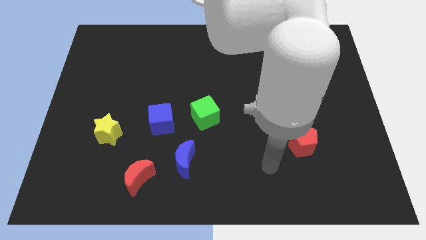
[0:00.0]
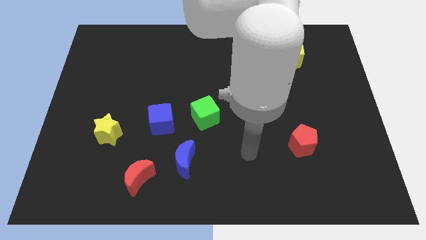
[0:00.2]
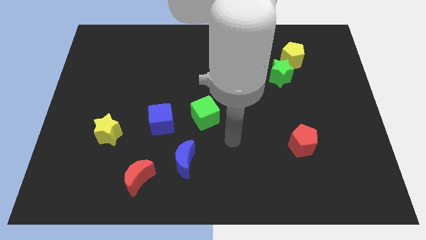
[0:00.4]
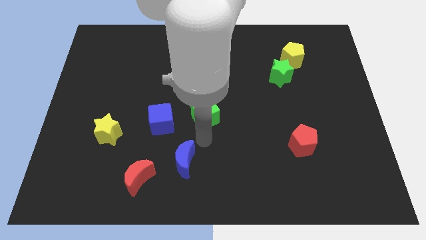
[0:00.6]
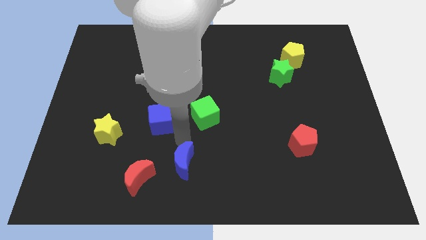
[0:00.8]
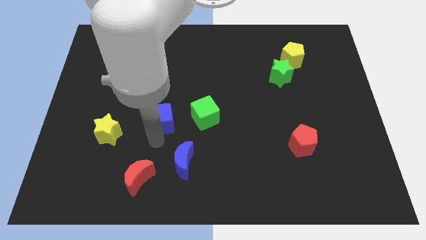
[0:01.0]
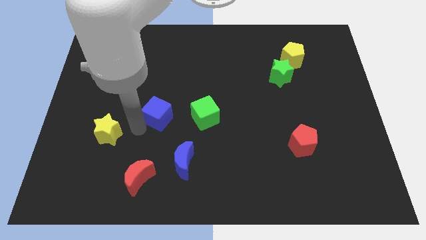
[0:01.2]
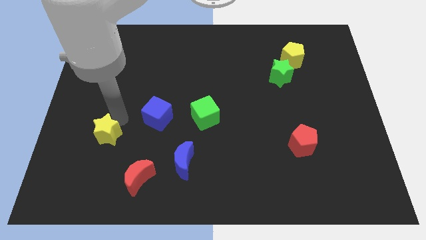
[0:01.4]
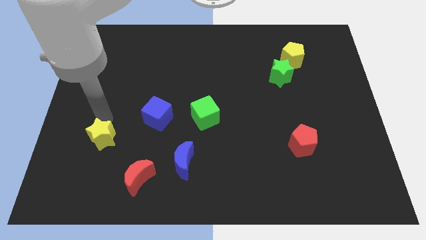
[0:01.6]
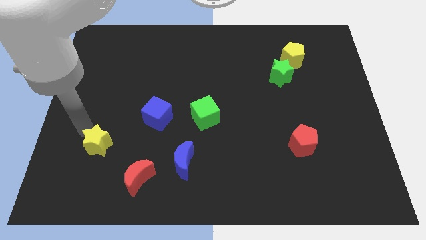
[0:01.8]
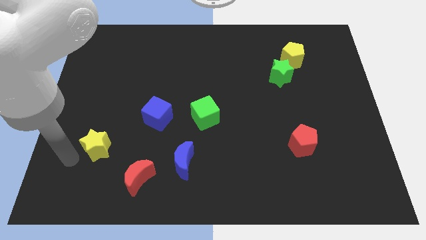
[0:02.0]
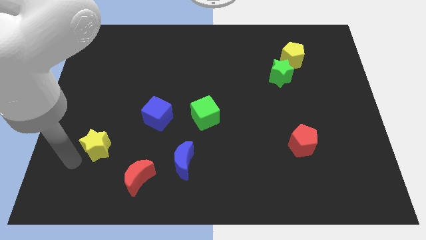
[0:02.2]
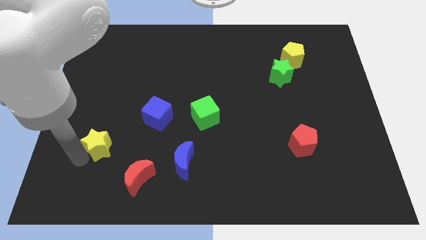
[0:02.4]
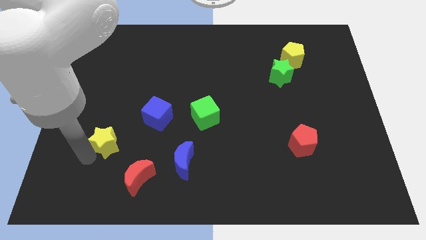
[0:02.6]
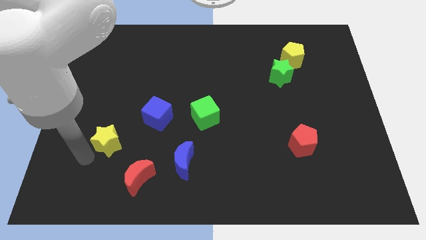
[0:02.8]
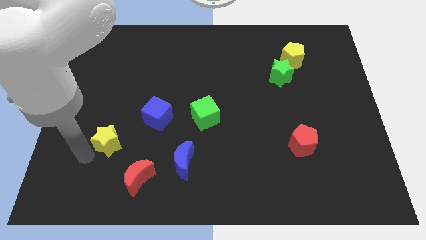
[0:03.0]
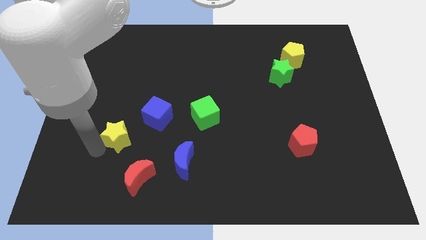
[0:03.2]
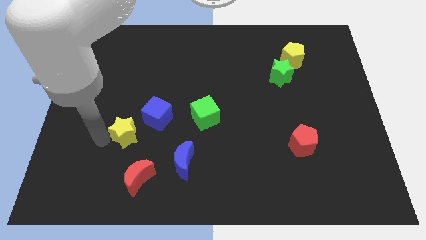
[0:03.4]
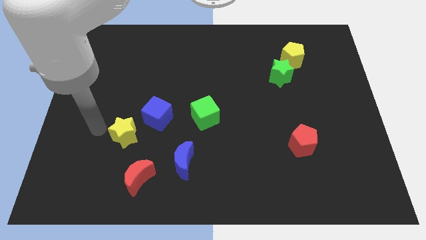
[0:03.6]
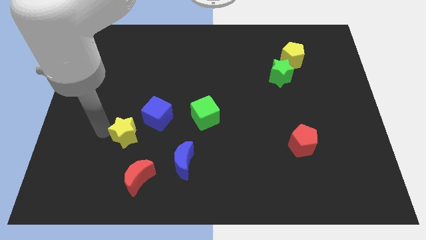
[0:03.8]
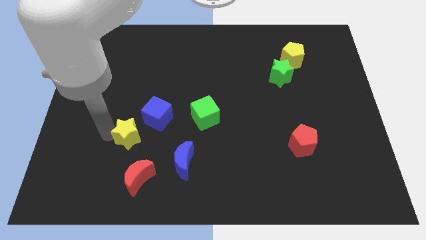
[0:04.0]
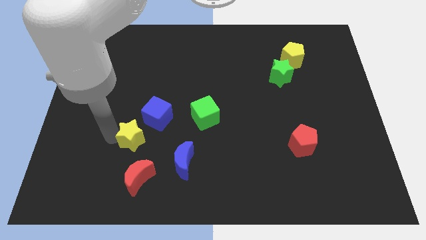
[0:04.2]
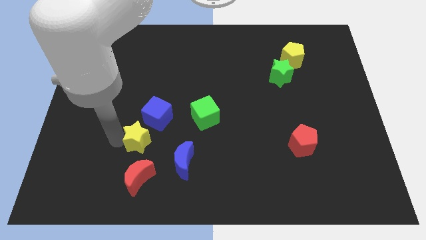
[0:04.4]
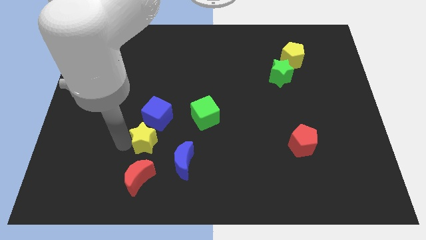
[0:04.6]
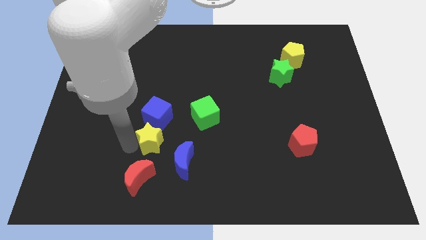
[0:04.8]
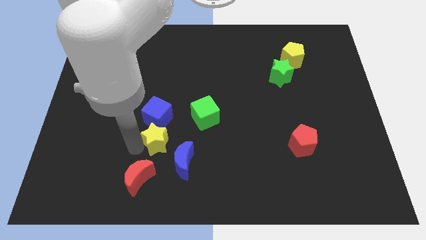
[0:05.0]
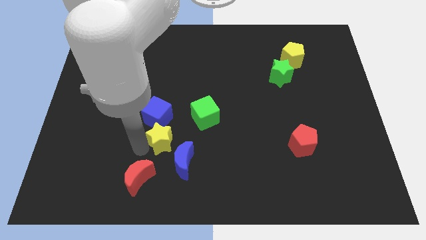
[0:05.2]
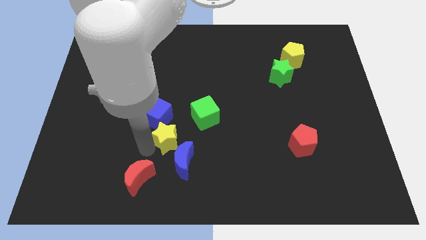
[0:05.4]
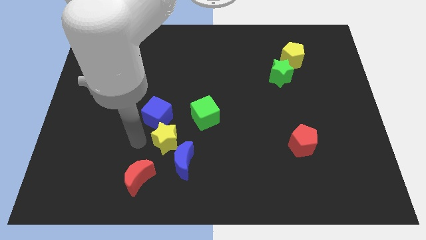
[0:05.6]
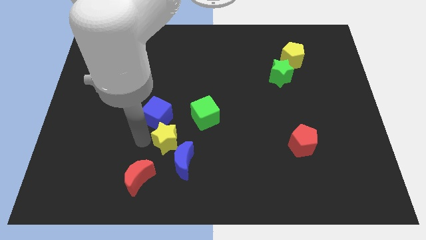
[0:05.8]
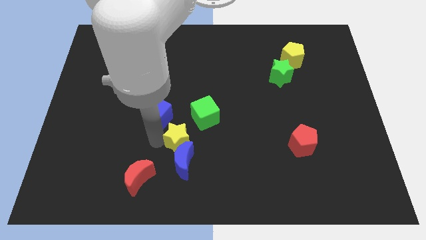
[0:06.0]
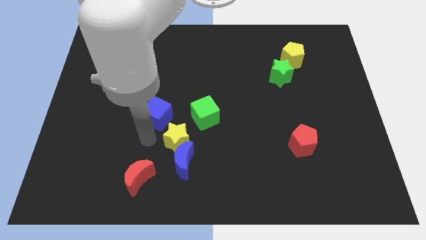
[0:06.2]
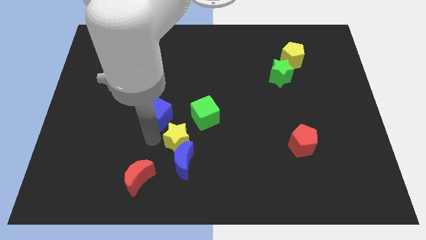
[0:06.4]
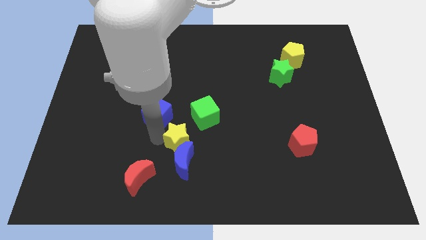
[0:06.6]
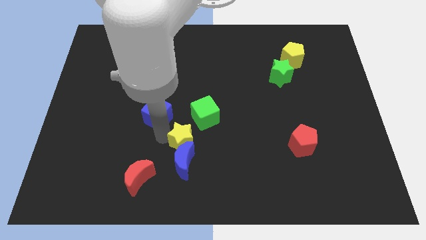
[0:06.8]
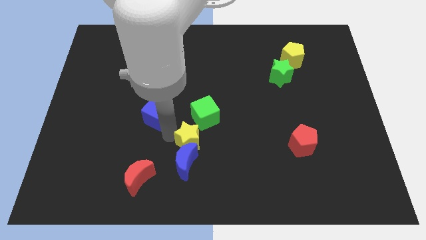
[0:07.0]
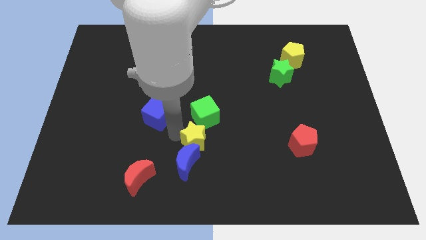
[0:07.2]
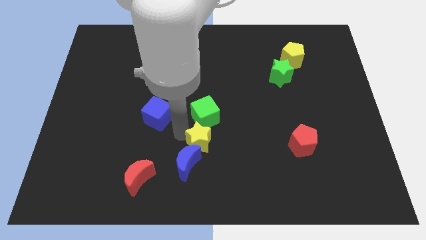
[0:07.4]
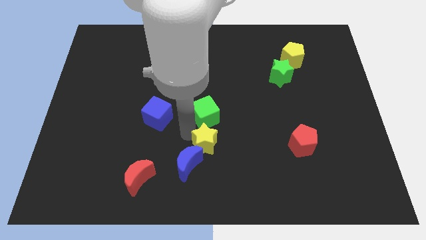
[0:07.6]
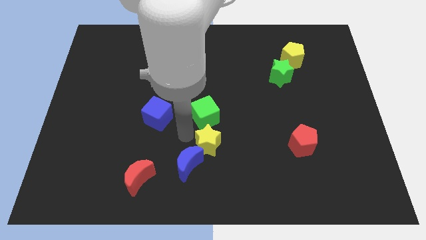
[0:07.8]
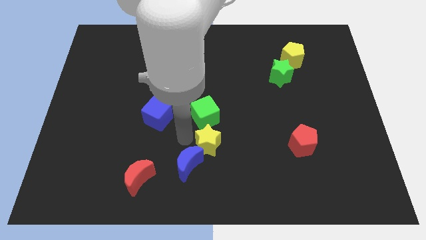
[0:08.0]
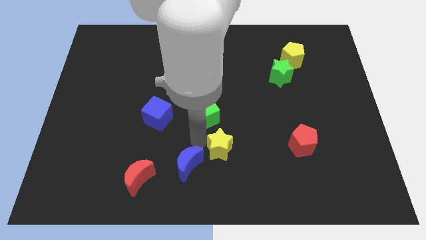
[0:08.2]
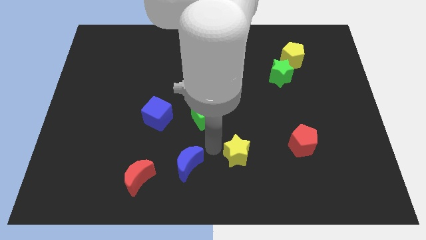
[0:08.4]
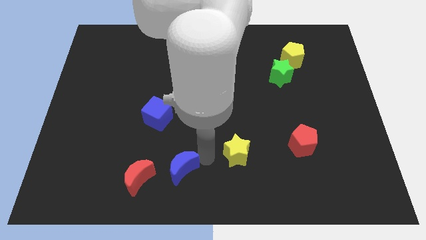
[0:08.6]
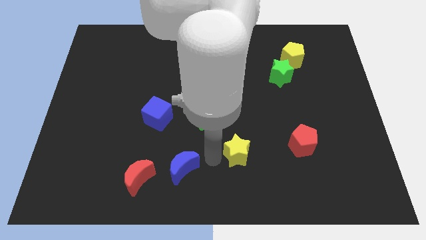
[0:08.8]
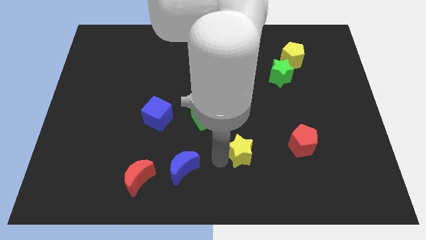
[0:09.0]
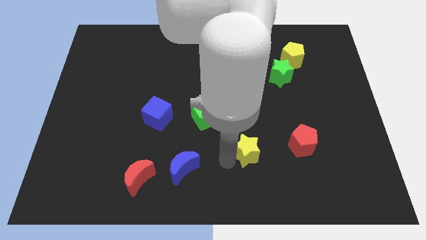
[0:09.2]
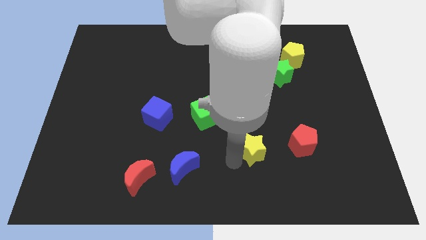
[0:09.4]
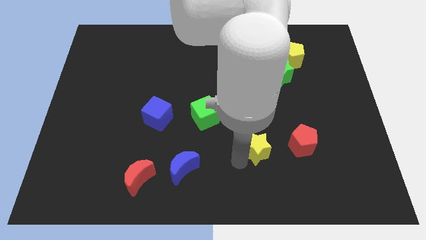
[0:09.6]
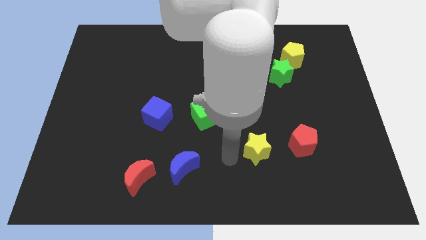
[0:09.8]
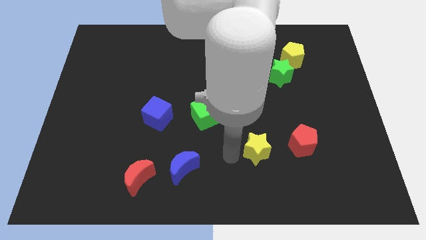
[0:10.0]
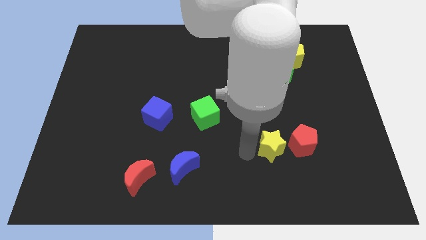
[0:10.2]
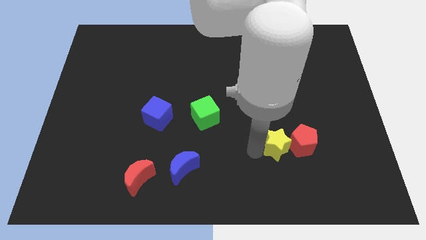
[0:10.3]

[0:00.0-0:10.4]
slide the yellow star towards the red pentagon

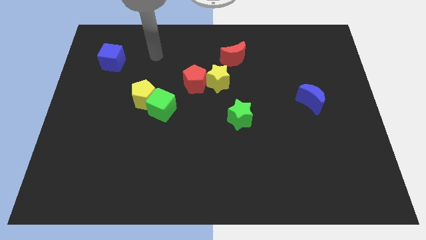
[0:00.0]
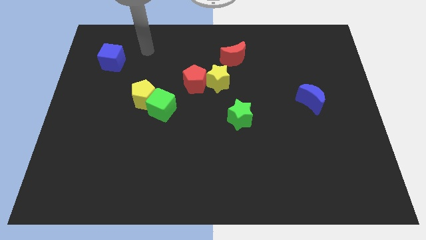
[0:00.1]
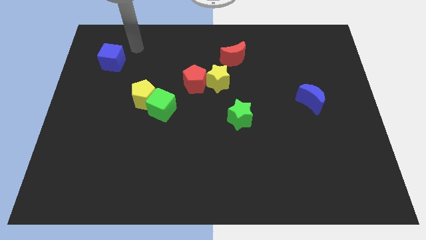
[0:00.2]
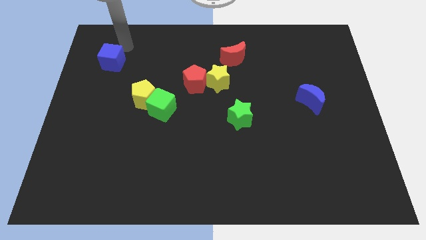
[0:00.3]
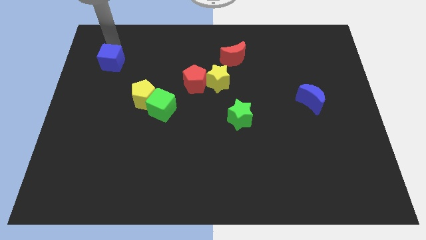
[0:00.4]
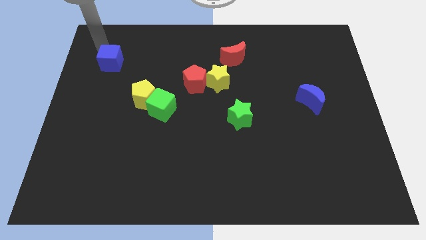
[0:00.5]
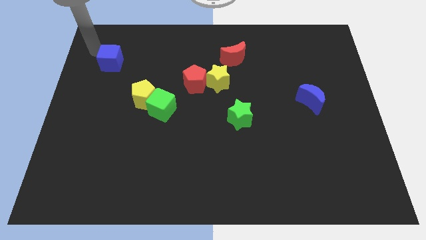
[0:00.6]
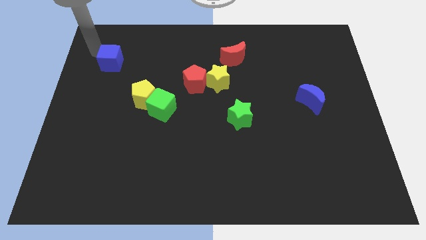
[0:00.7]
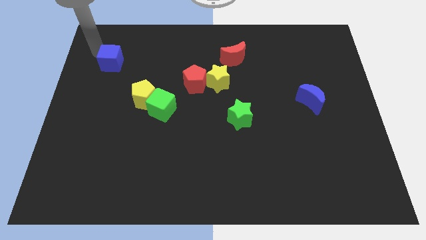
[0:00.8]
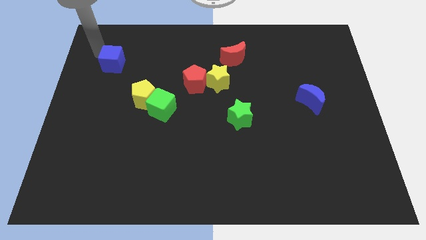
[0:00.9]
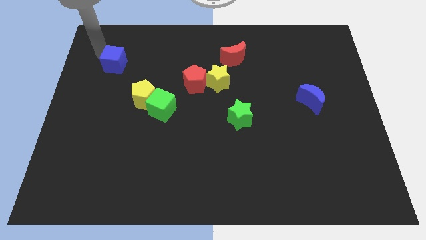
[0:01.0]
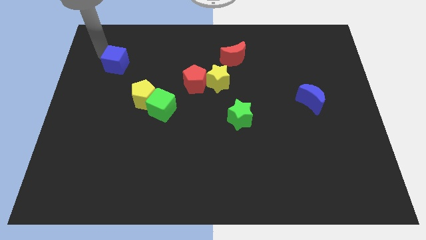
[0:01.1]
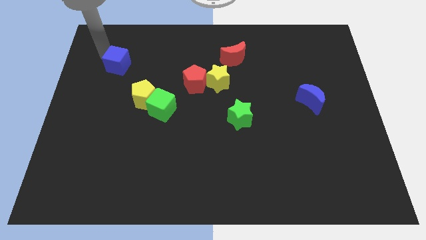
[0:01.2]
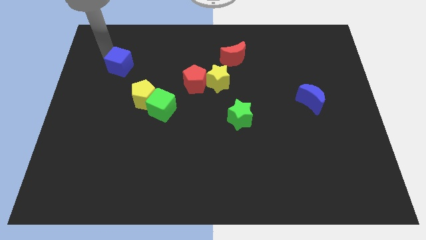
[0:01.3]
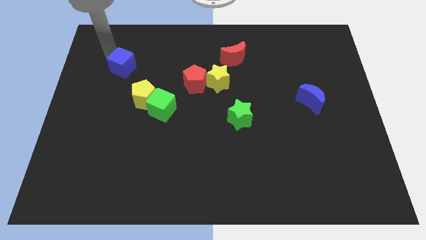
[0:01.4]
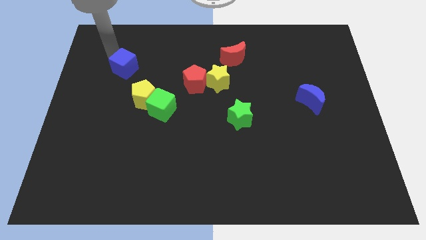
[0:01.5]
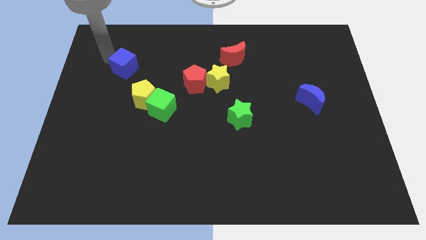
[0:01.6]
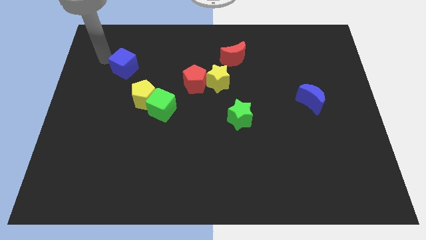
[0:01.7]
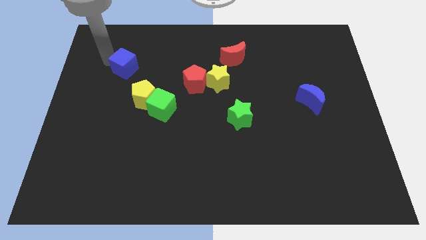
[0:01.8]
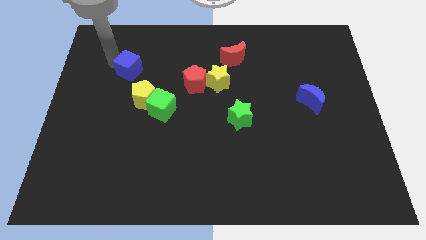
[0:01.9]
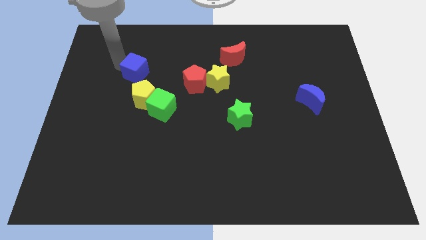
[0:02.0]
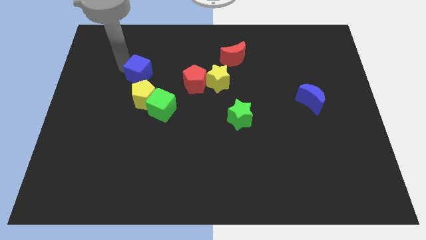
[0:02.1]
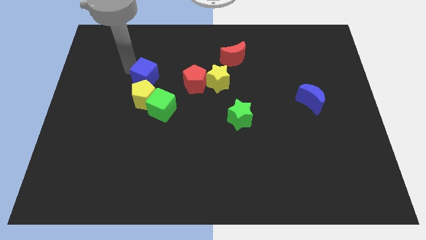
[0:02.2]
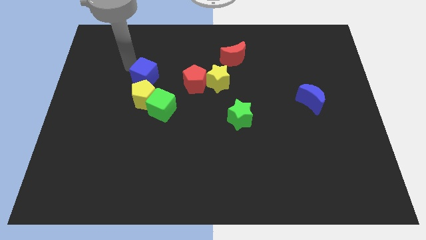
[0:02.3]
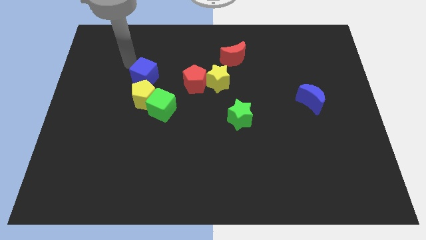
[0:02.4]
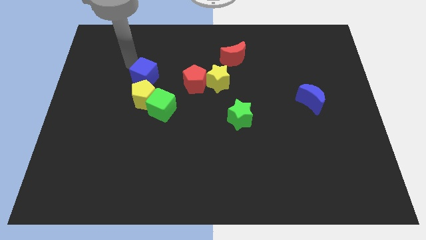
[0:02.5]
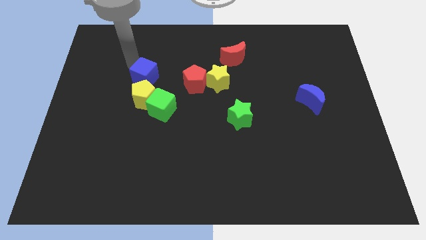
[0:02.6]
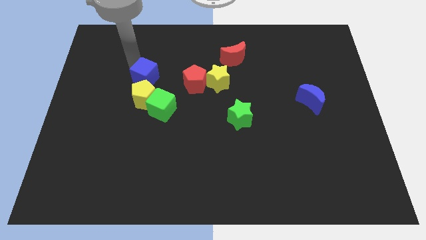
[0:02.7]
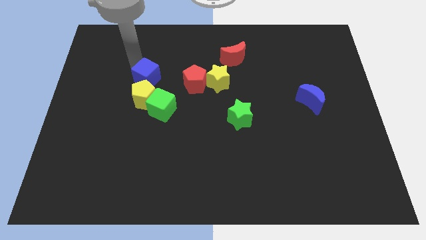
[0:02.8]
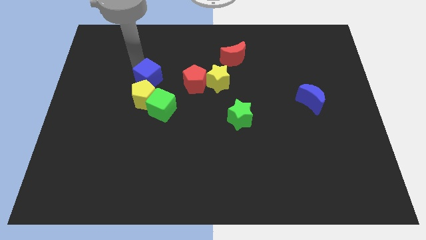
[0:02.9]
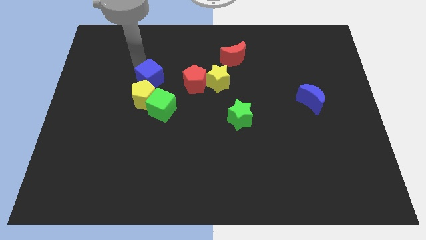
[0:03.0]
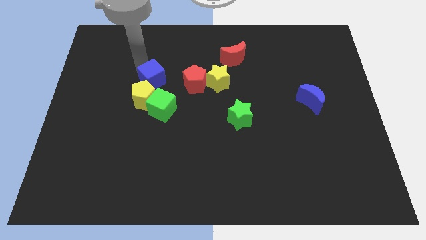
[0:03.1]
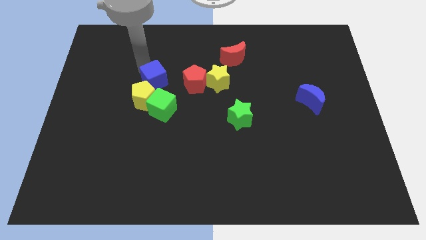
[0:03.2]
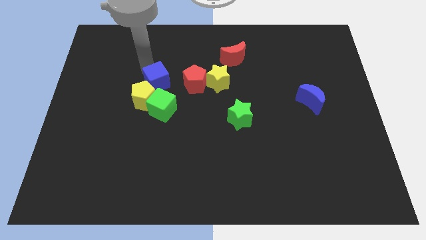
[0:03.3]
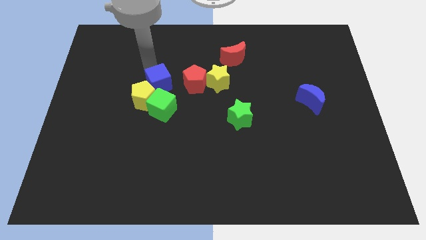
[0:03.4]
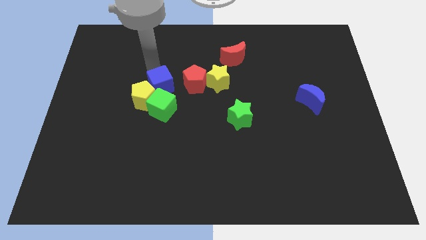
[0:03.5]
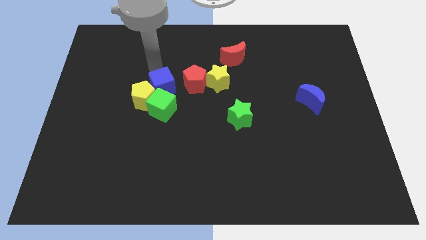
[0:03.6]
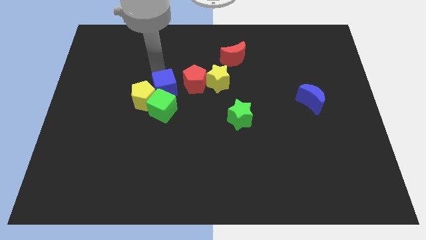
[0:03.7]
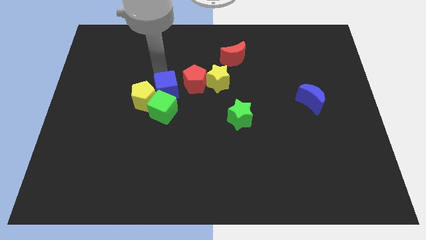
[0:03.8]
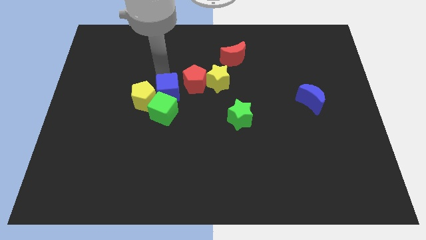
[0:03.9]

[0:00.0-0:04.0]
put the blue cube next to the green cube
